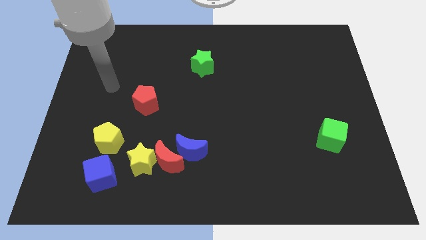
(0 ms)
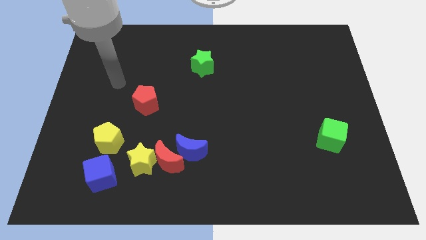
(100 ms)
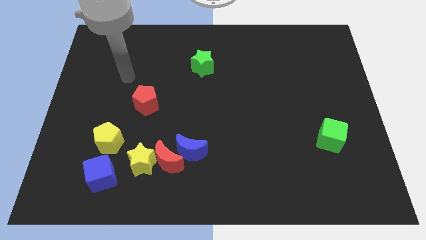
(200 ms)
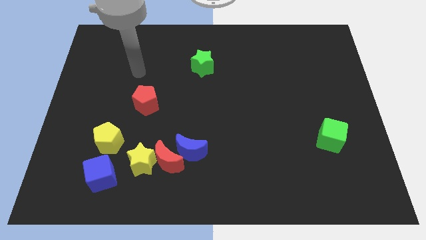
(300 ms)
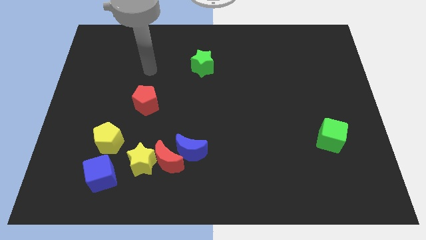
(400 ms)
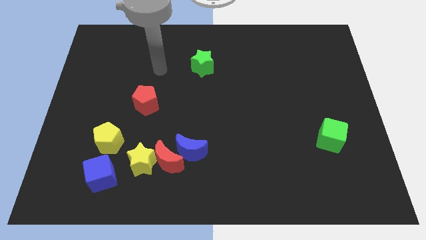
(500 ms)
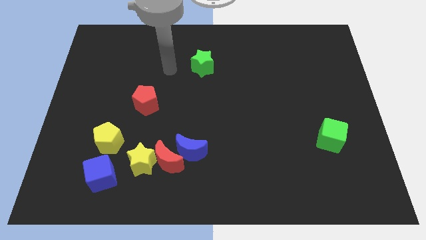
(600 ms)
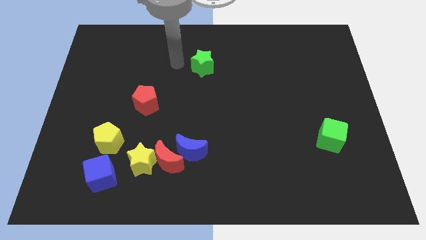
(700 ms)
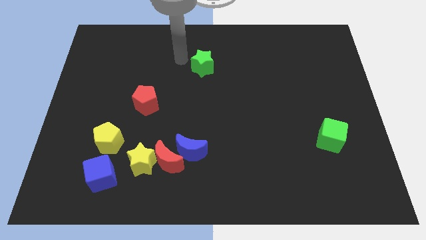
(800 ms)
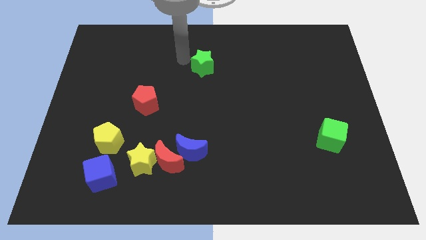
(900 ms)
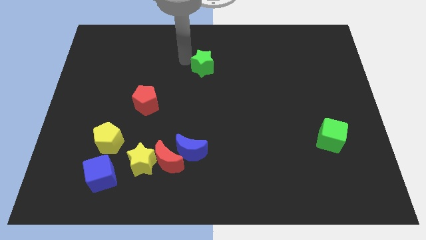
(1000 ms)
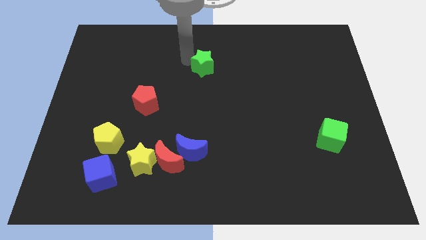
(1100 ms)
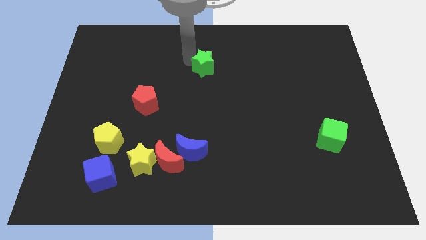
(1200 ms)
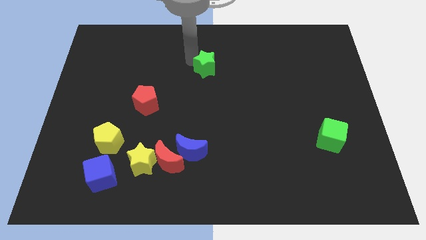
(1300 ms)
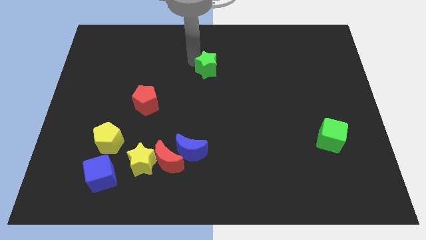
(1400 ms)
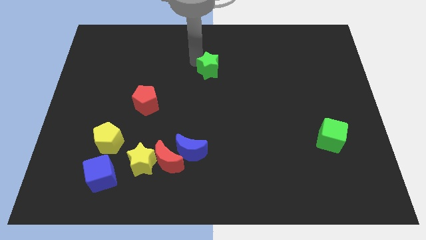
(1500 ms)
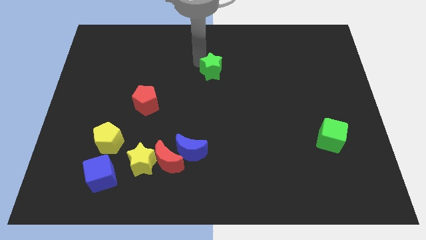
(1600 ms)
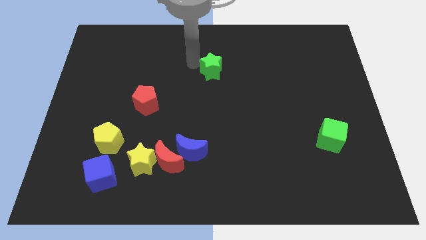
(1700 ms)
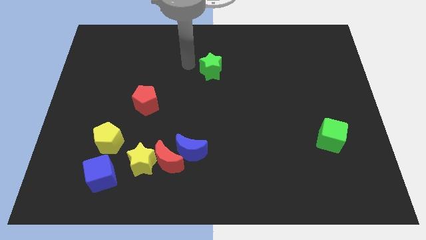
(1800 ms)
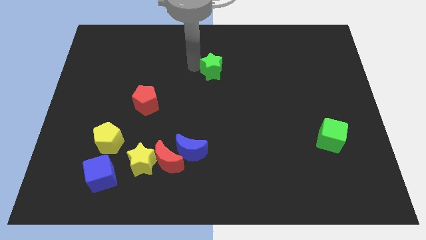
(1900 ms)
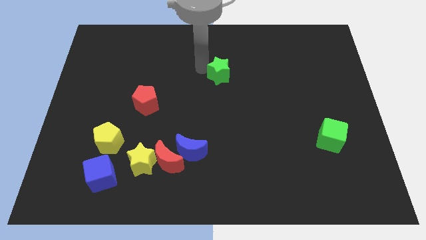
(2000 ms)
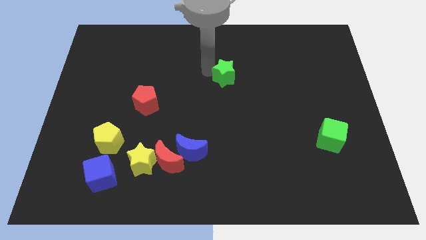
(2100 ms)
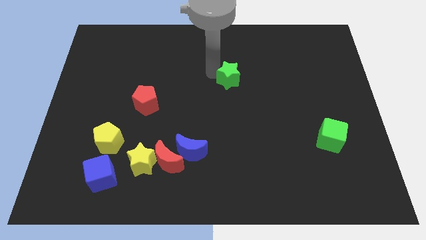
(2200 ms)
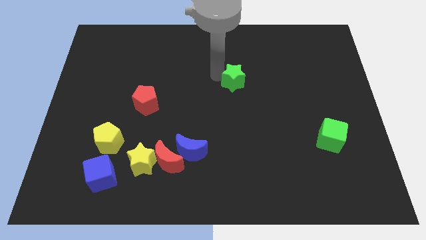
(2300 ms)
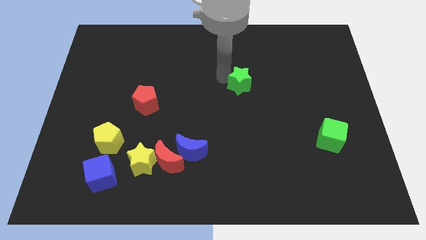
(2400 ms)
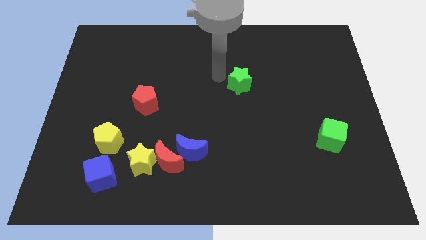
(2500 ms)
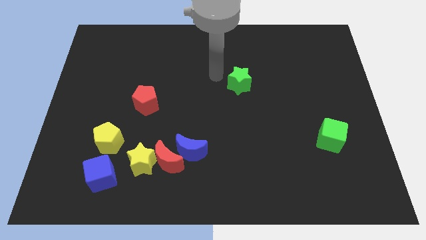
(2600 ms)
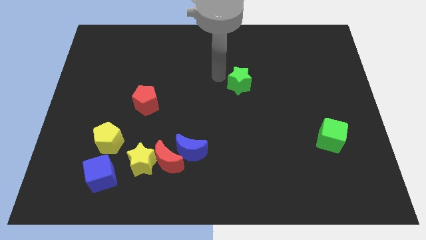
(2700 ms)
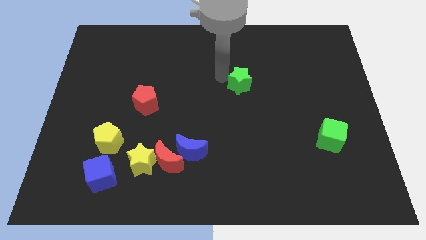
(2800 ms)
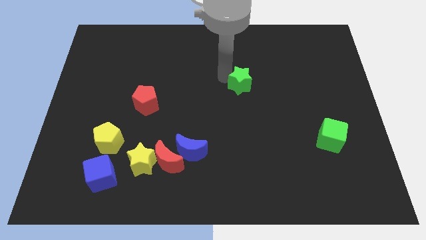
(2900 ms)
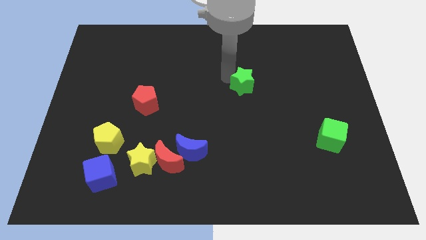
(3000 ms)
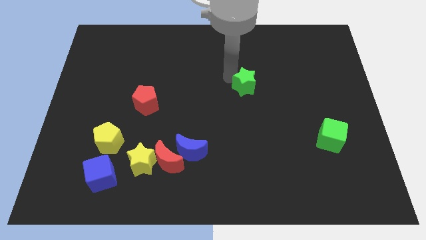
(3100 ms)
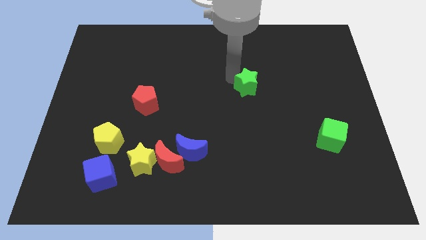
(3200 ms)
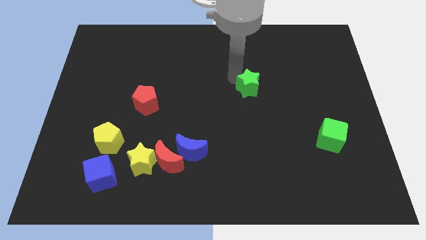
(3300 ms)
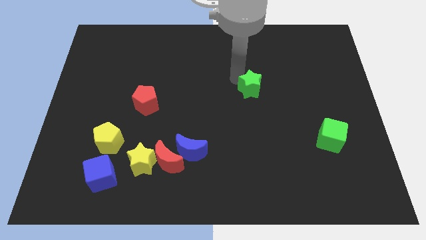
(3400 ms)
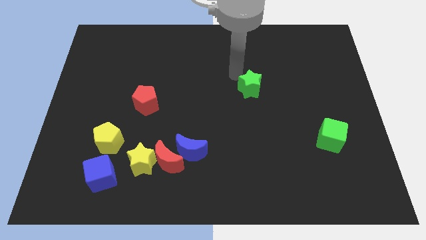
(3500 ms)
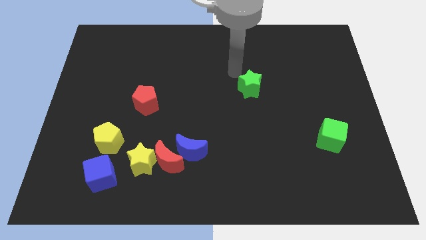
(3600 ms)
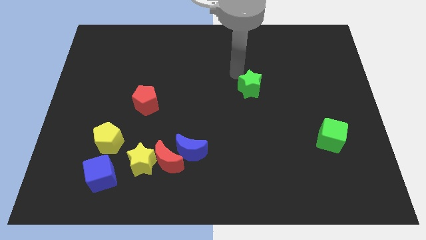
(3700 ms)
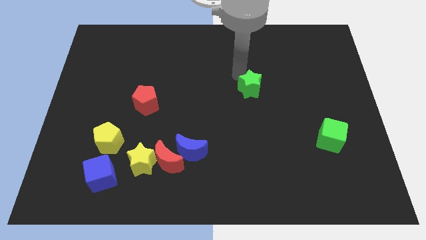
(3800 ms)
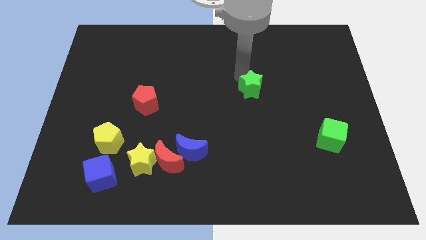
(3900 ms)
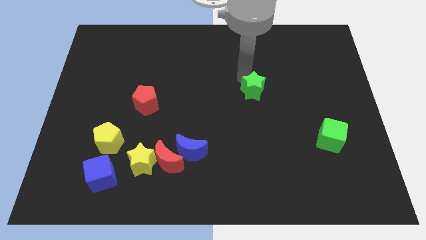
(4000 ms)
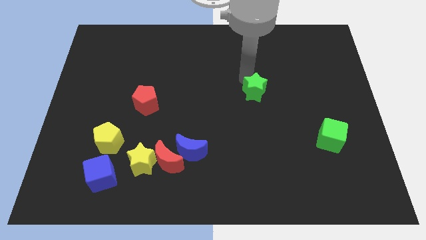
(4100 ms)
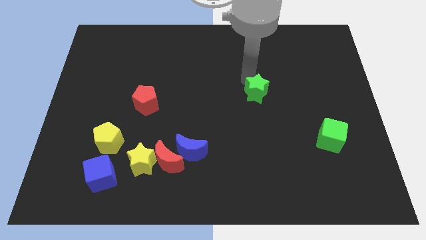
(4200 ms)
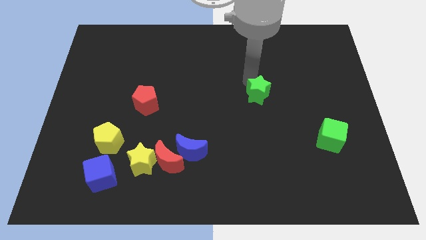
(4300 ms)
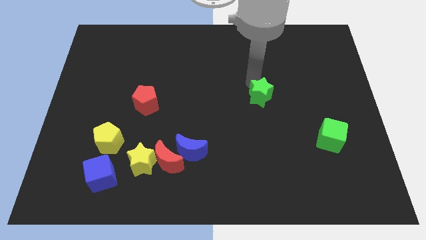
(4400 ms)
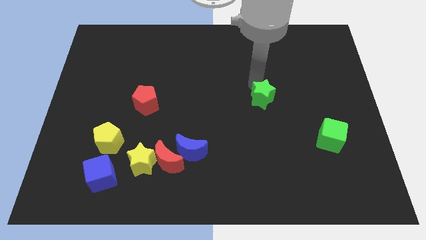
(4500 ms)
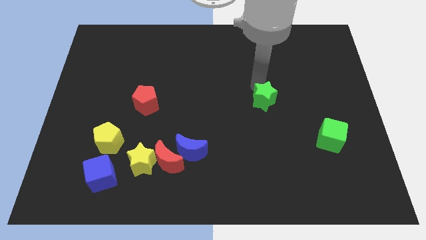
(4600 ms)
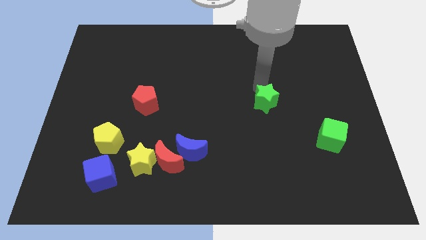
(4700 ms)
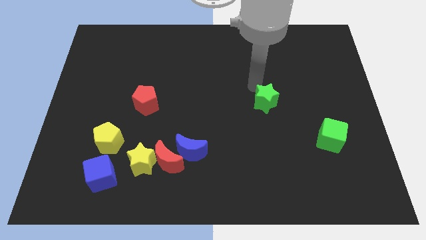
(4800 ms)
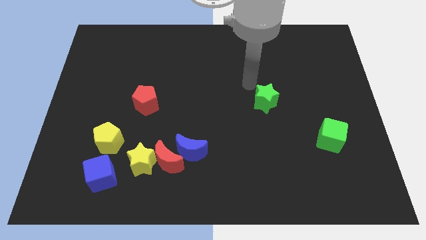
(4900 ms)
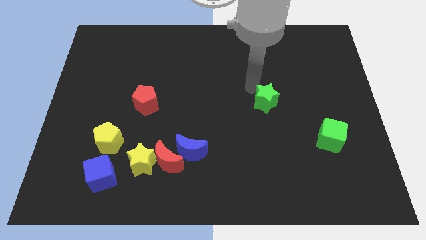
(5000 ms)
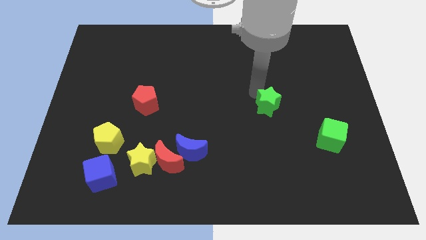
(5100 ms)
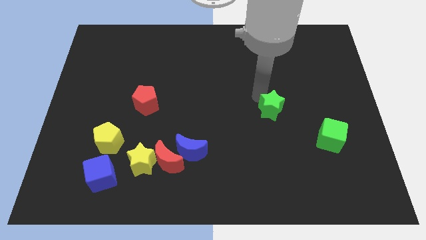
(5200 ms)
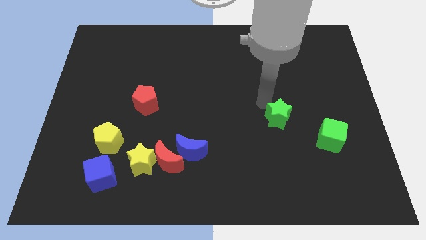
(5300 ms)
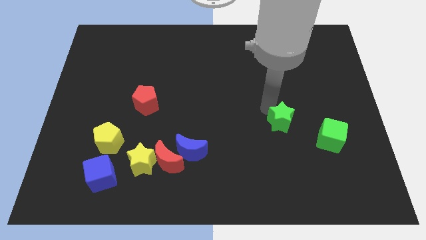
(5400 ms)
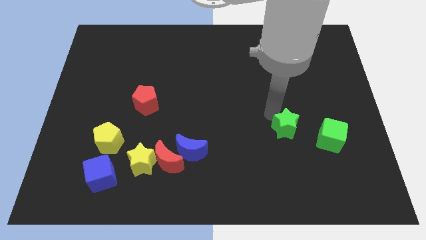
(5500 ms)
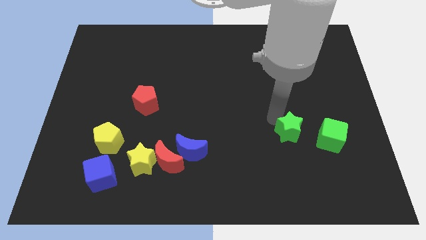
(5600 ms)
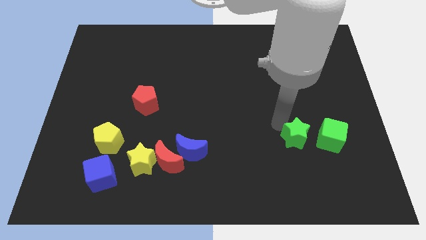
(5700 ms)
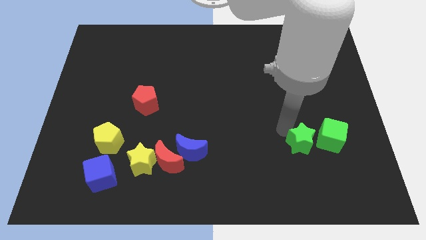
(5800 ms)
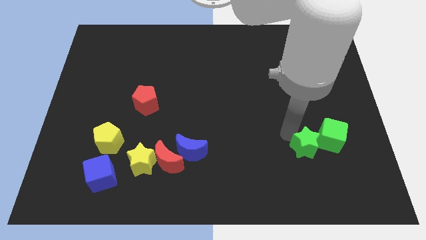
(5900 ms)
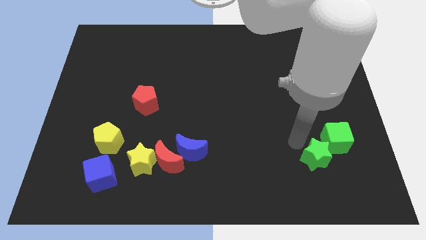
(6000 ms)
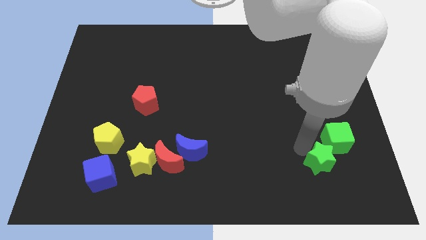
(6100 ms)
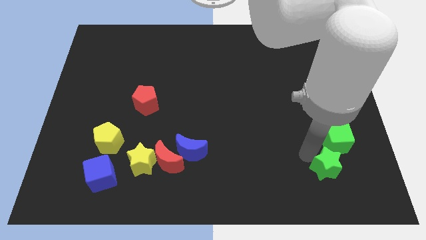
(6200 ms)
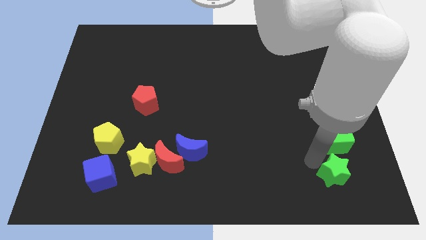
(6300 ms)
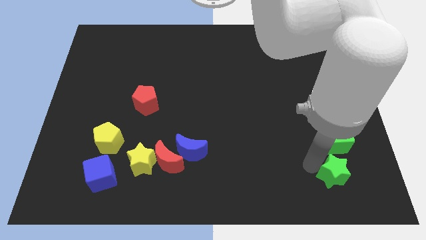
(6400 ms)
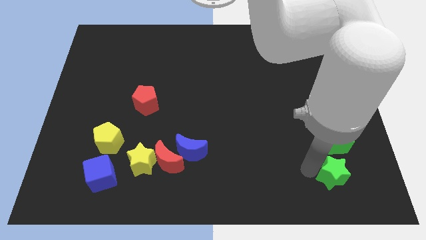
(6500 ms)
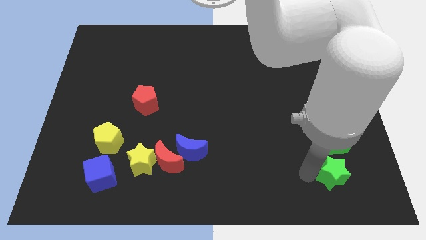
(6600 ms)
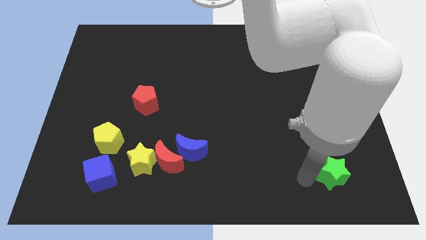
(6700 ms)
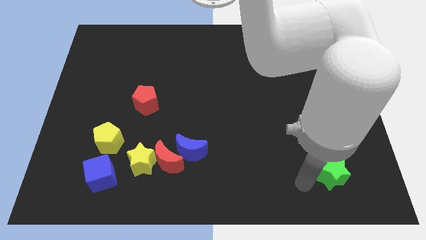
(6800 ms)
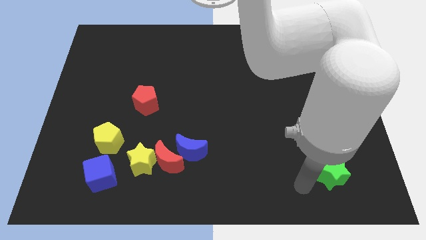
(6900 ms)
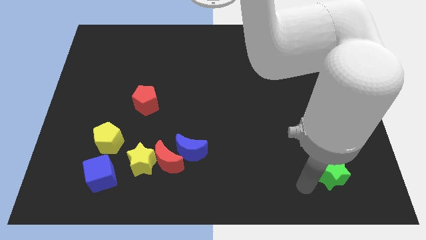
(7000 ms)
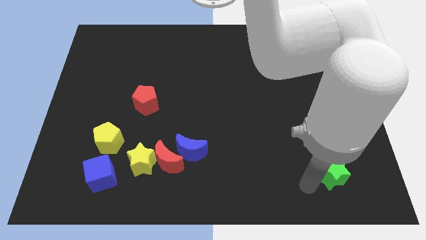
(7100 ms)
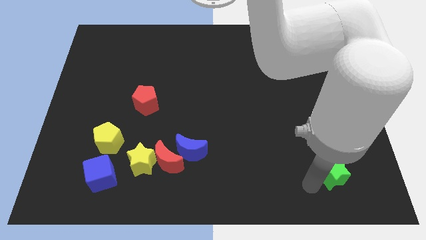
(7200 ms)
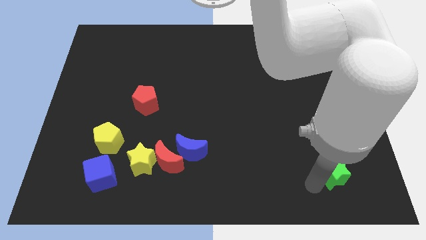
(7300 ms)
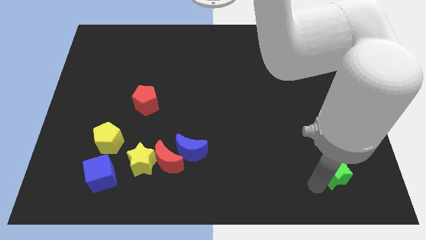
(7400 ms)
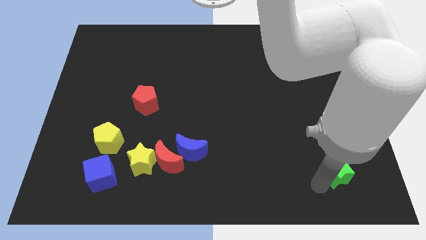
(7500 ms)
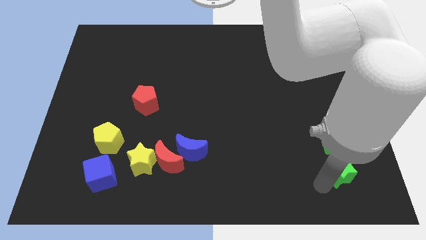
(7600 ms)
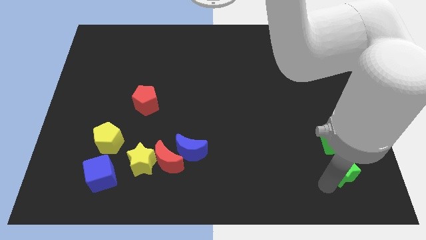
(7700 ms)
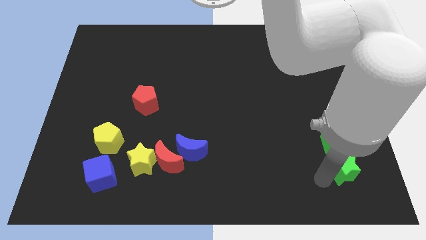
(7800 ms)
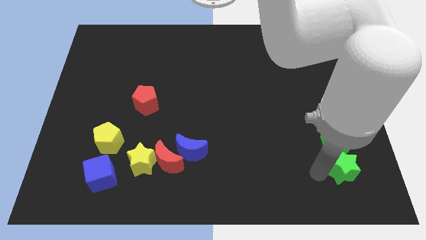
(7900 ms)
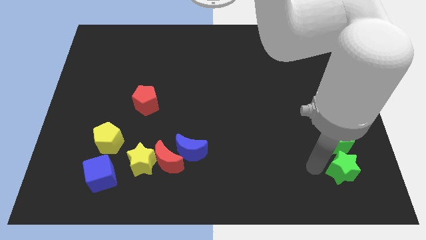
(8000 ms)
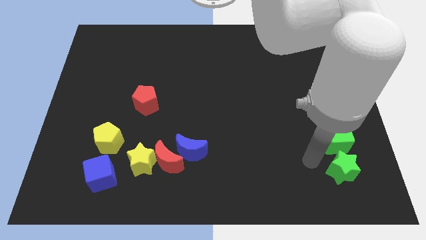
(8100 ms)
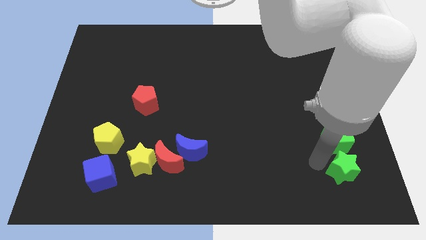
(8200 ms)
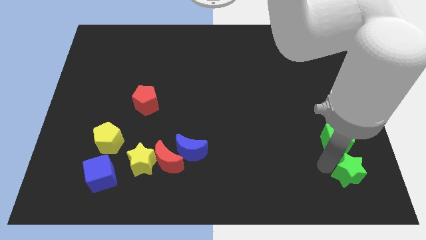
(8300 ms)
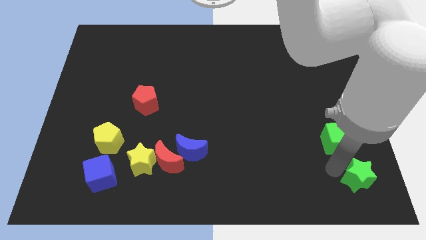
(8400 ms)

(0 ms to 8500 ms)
slide the green star to the bottom right
